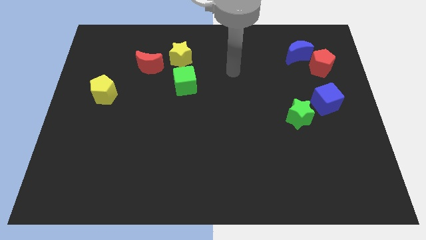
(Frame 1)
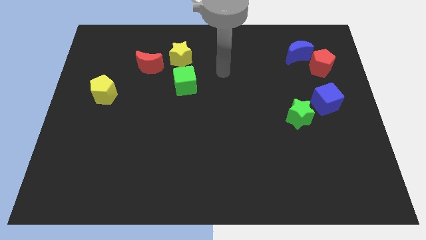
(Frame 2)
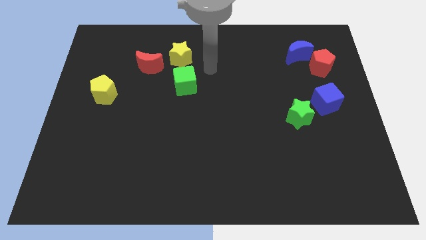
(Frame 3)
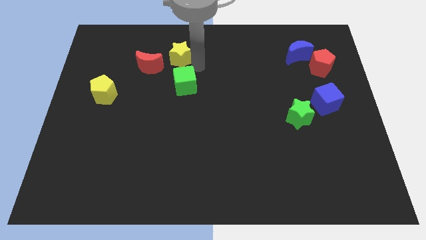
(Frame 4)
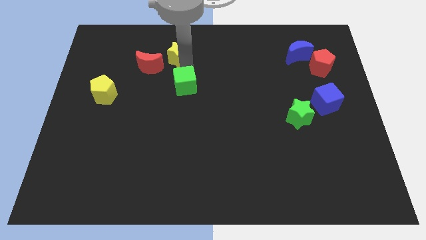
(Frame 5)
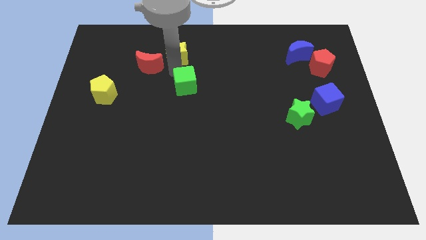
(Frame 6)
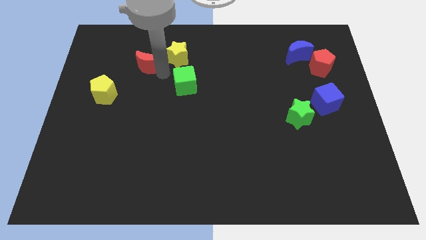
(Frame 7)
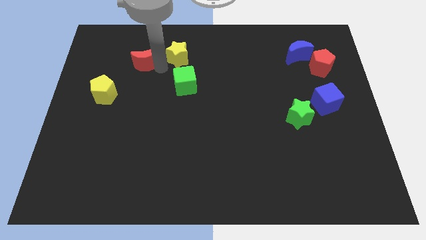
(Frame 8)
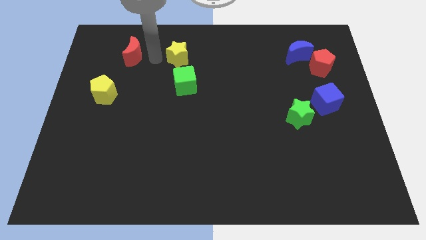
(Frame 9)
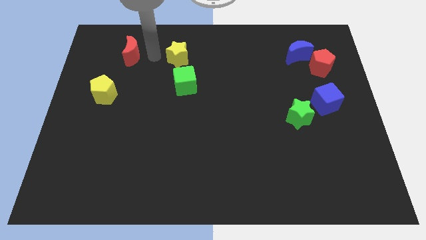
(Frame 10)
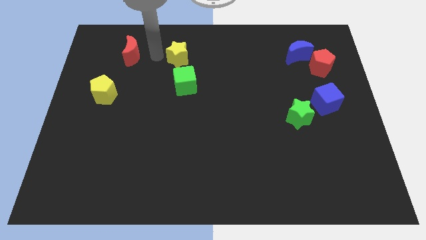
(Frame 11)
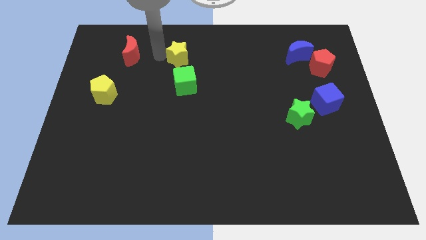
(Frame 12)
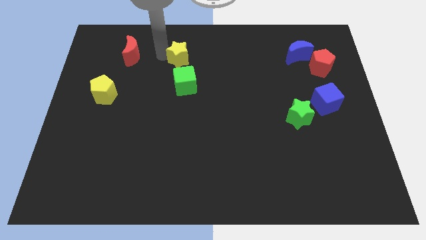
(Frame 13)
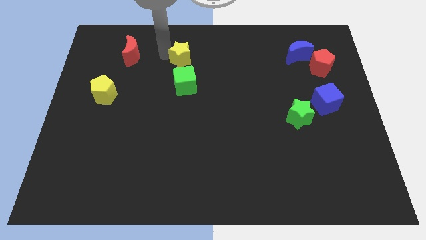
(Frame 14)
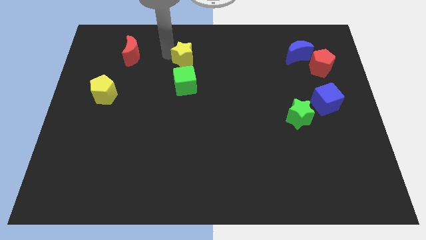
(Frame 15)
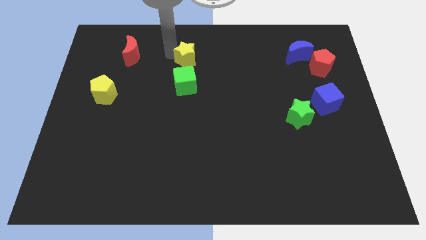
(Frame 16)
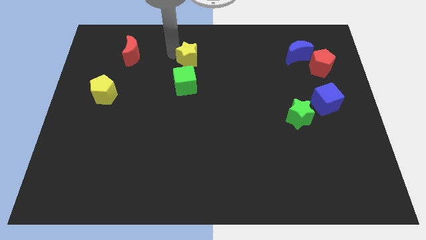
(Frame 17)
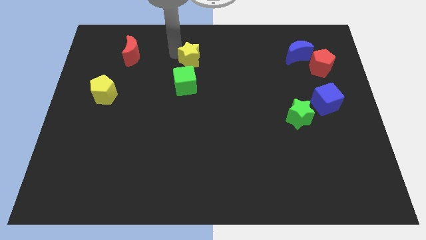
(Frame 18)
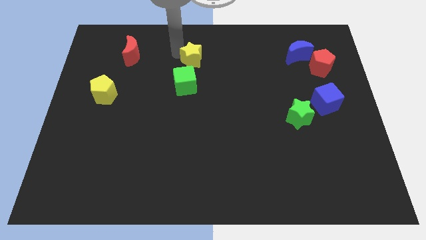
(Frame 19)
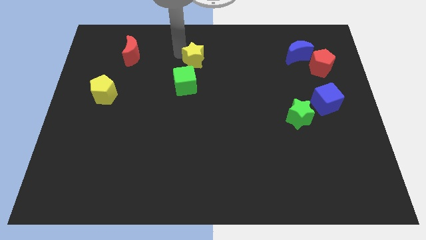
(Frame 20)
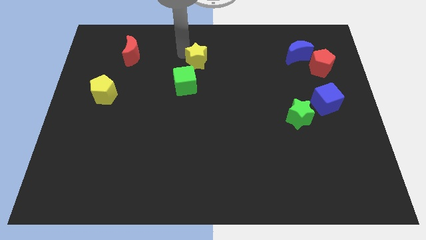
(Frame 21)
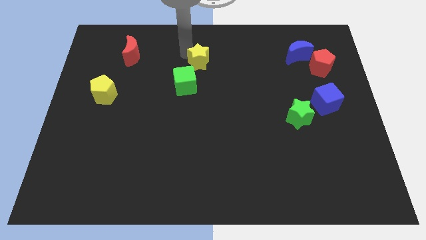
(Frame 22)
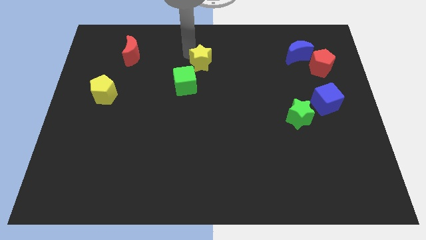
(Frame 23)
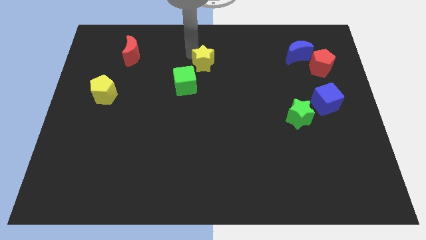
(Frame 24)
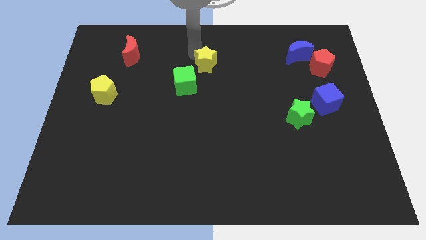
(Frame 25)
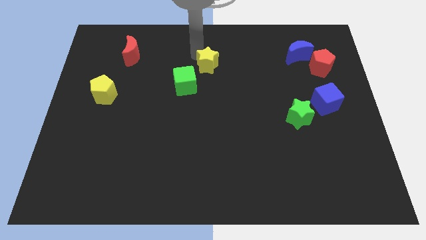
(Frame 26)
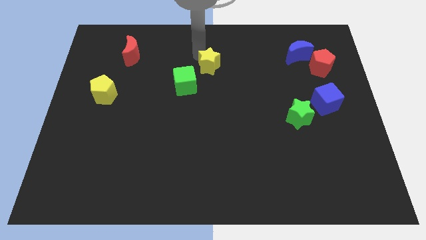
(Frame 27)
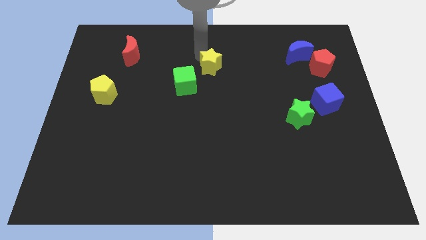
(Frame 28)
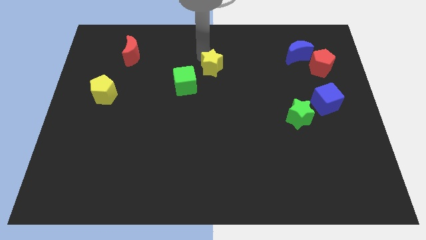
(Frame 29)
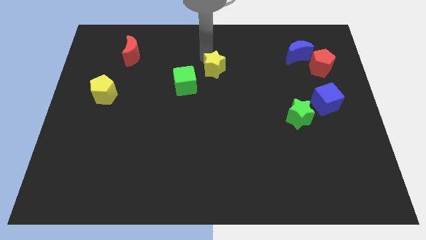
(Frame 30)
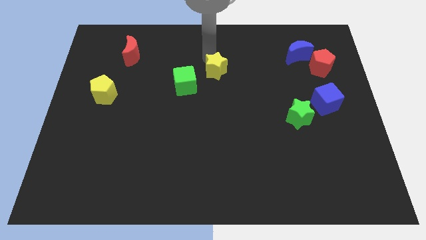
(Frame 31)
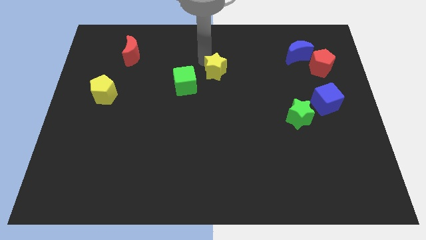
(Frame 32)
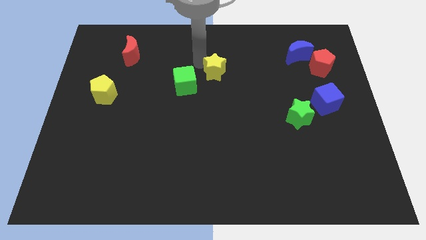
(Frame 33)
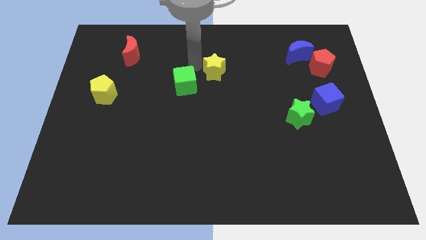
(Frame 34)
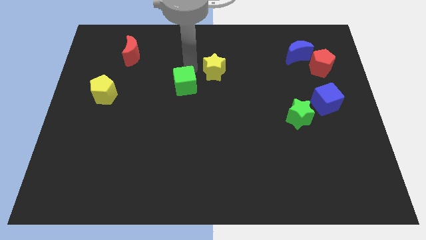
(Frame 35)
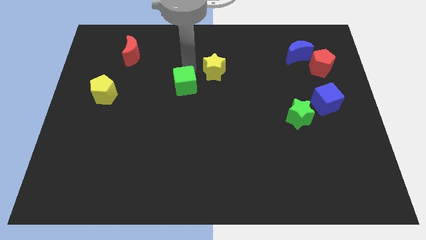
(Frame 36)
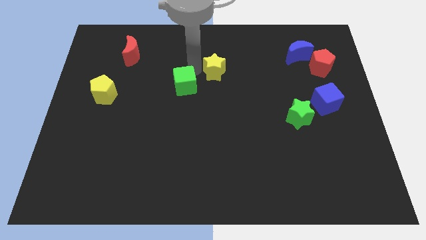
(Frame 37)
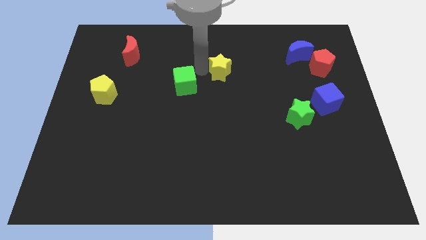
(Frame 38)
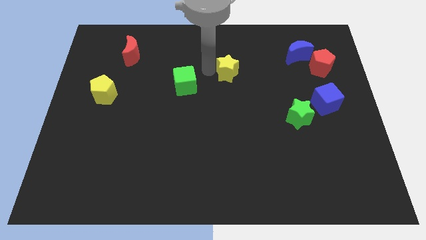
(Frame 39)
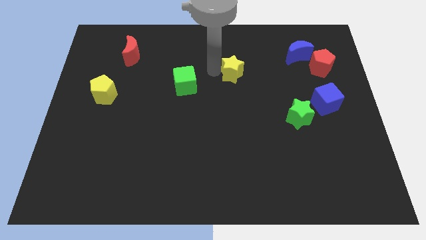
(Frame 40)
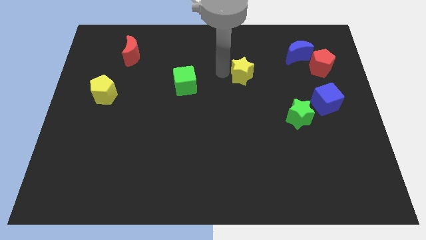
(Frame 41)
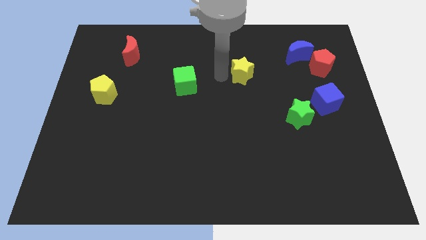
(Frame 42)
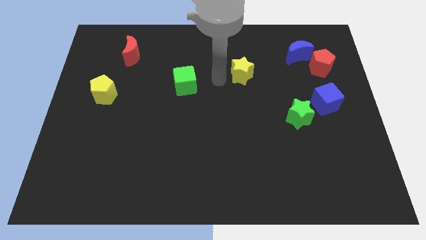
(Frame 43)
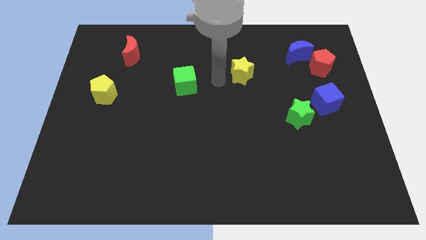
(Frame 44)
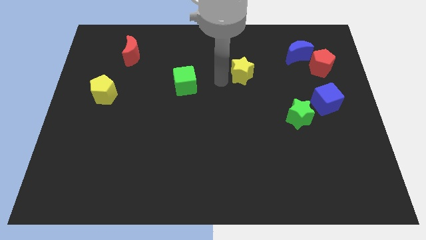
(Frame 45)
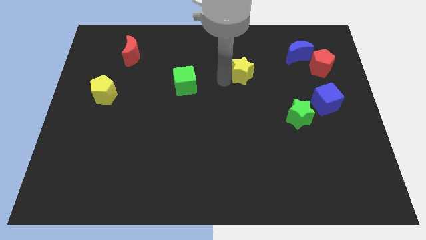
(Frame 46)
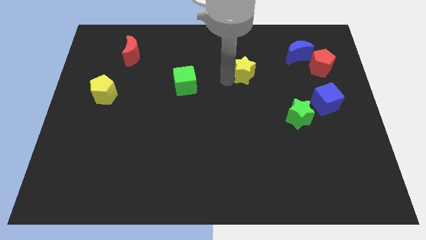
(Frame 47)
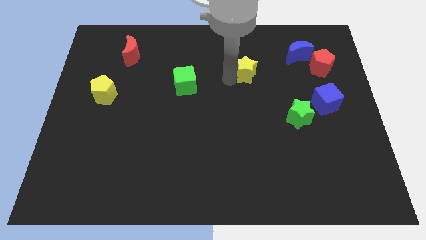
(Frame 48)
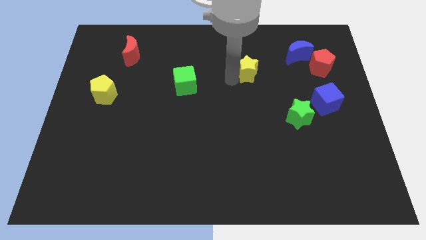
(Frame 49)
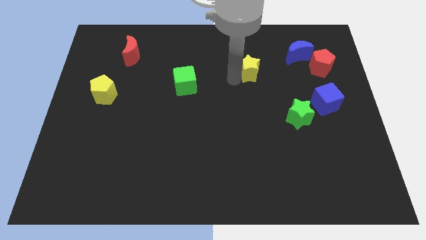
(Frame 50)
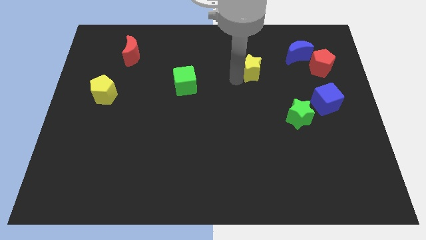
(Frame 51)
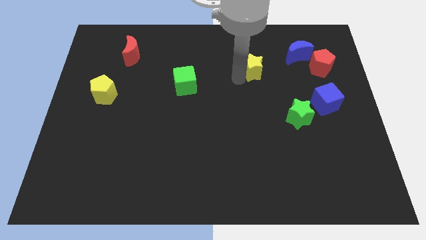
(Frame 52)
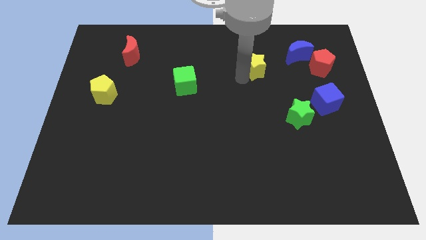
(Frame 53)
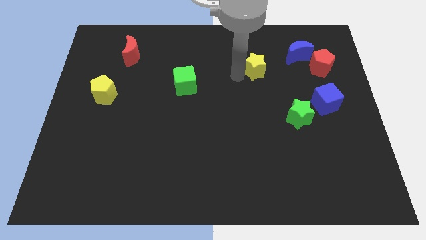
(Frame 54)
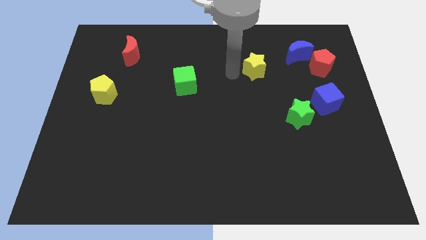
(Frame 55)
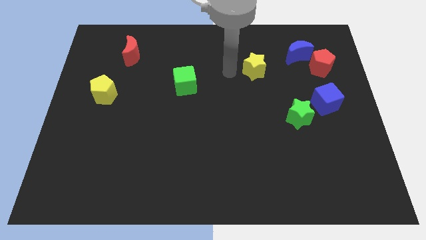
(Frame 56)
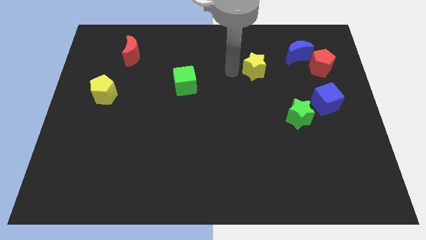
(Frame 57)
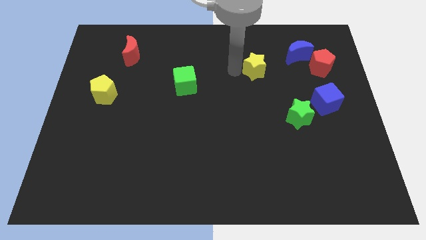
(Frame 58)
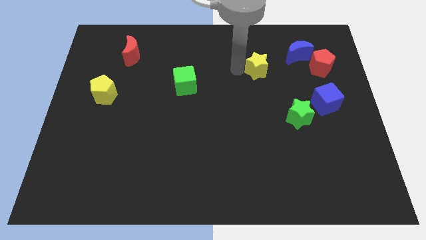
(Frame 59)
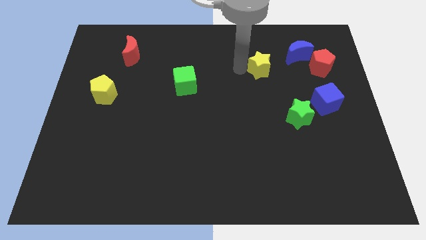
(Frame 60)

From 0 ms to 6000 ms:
slide the yellow star to the left of the red pentagon

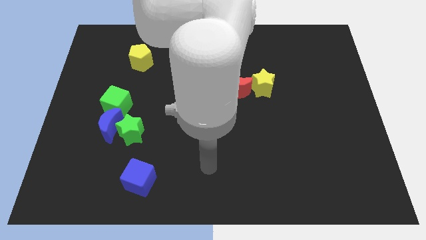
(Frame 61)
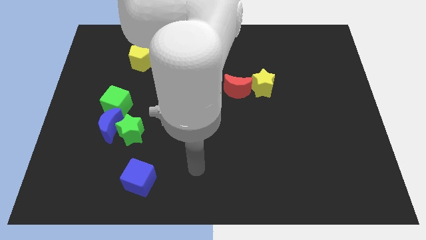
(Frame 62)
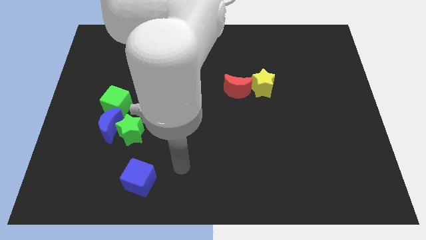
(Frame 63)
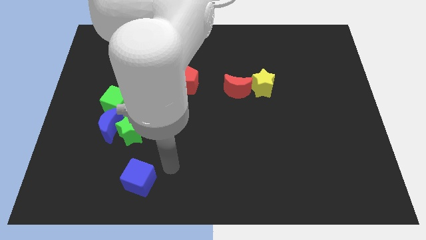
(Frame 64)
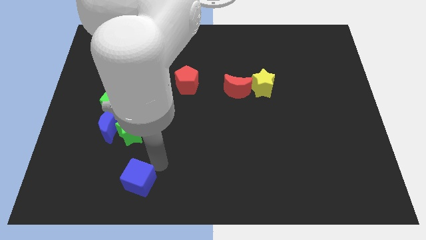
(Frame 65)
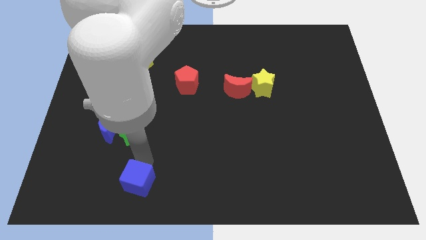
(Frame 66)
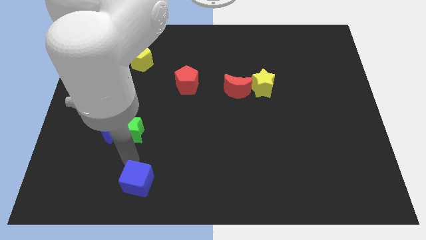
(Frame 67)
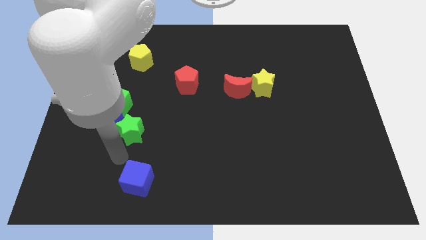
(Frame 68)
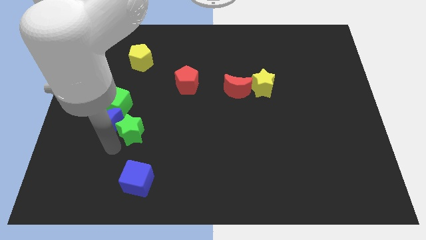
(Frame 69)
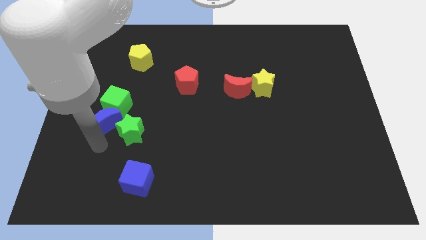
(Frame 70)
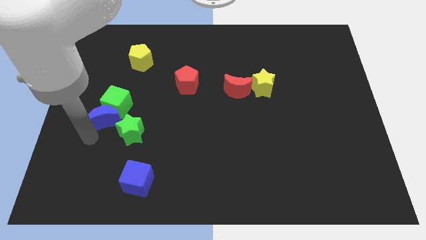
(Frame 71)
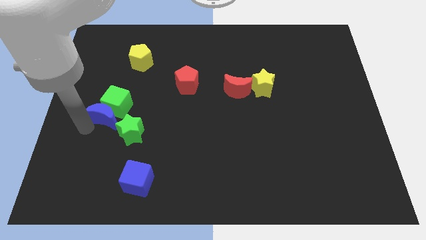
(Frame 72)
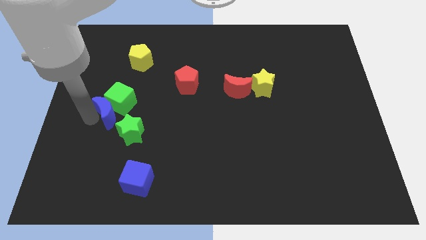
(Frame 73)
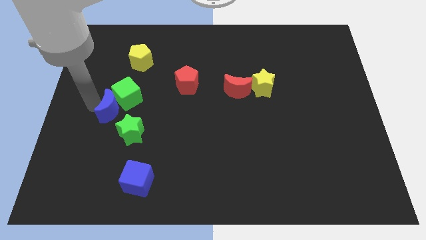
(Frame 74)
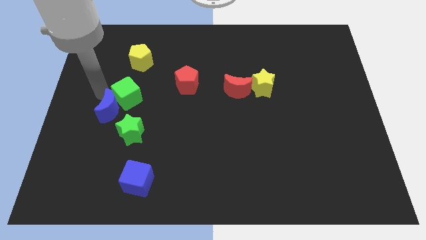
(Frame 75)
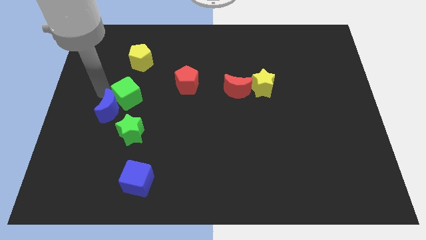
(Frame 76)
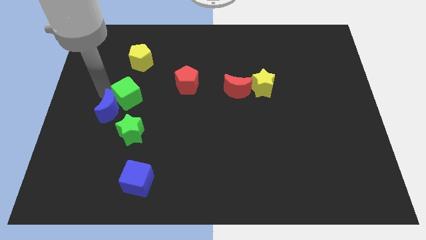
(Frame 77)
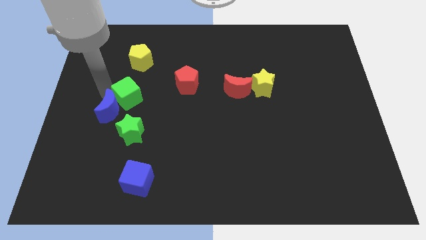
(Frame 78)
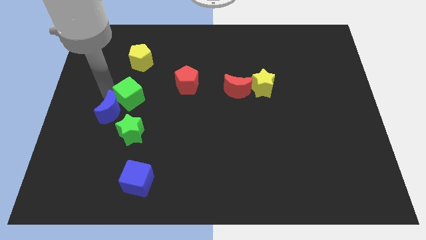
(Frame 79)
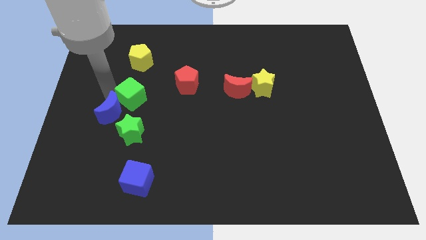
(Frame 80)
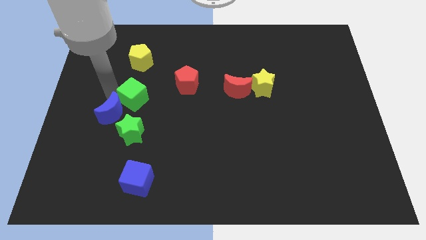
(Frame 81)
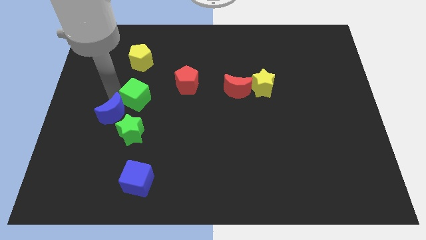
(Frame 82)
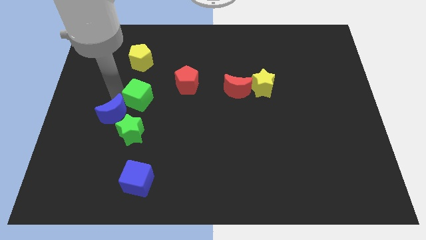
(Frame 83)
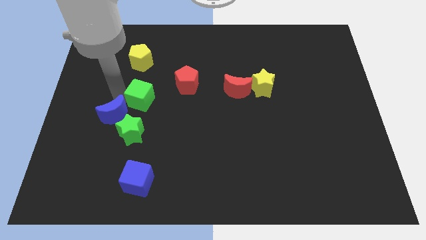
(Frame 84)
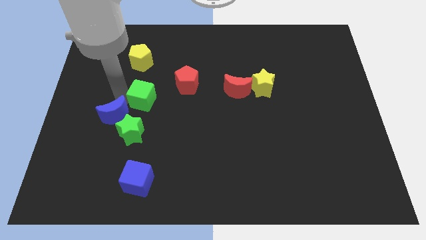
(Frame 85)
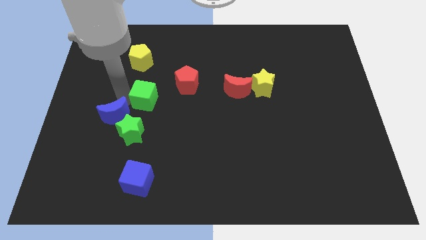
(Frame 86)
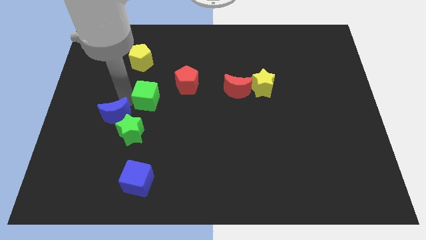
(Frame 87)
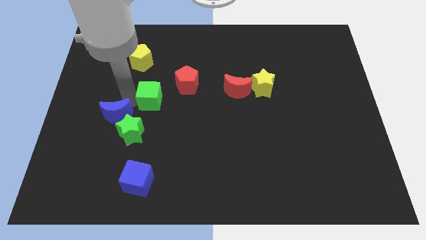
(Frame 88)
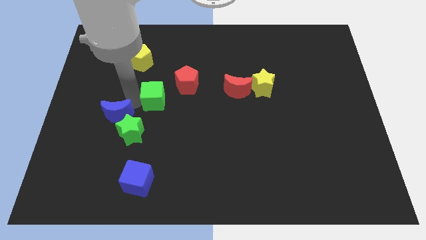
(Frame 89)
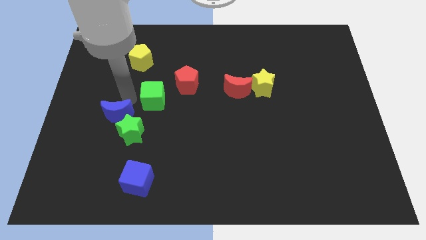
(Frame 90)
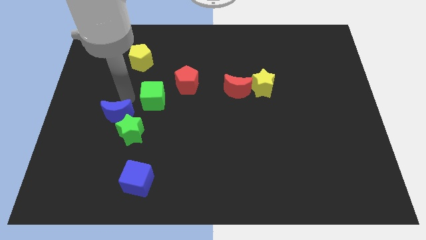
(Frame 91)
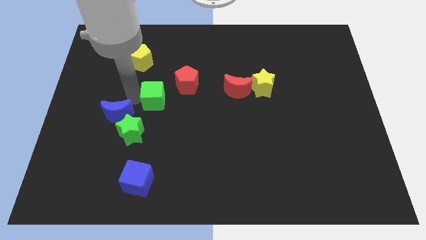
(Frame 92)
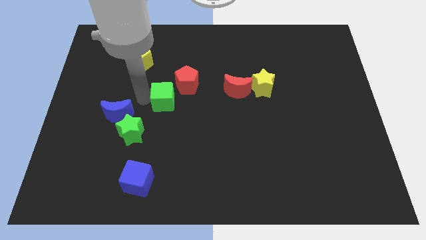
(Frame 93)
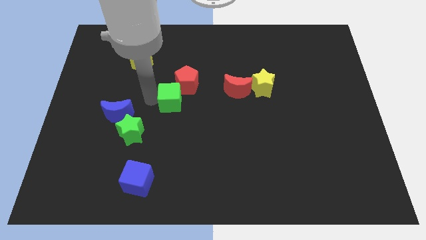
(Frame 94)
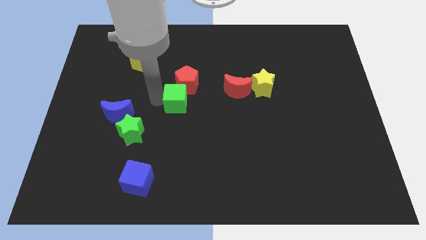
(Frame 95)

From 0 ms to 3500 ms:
put the green cube left of the red moon
